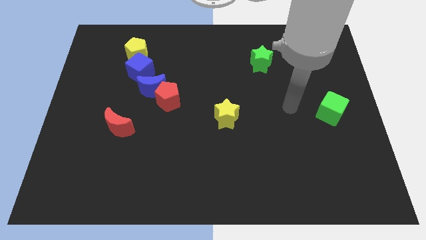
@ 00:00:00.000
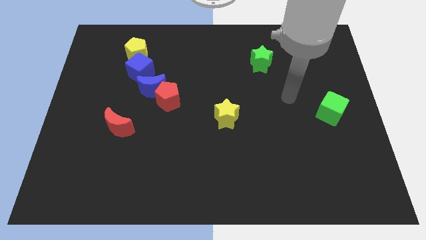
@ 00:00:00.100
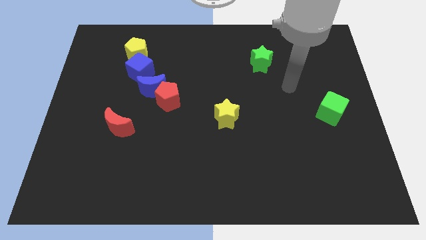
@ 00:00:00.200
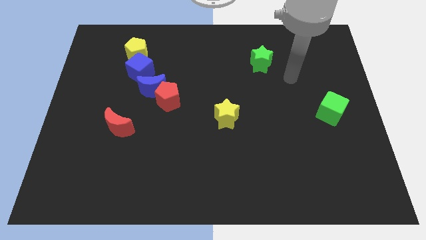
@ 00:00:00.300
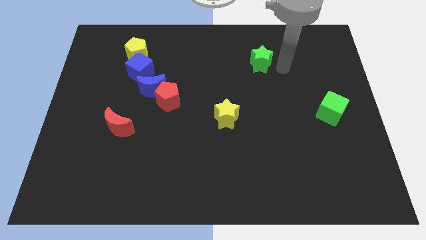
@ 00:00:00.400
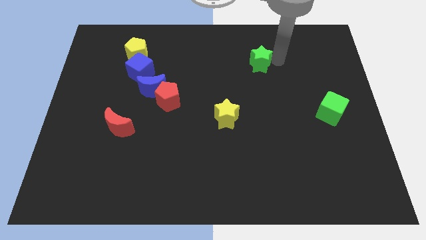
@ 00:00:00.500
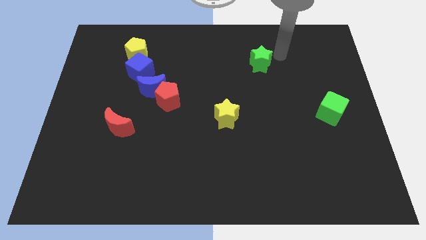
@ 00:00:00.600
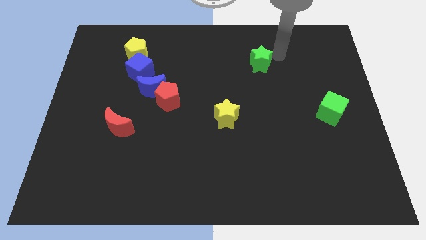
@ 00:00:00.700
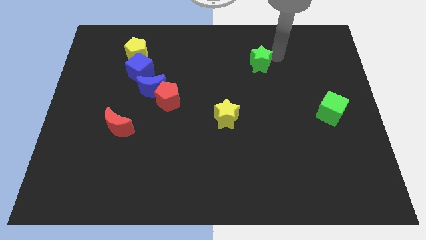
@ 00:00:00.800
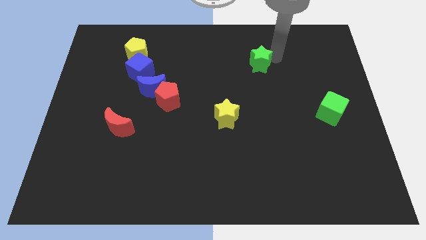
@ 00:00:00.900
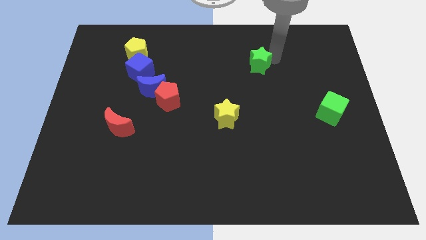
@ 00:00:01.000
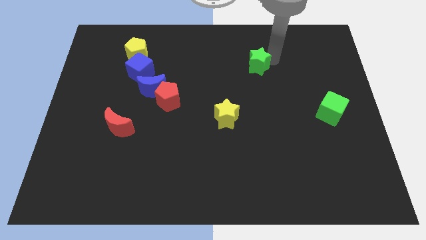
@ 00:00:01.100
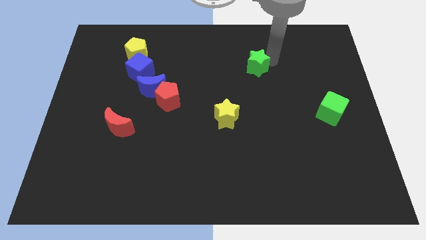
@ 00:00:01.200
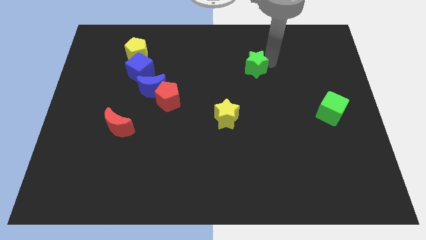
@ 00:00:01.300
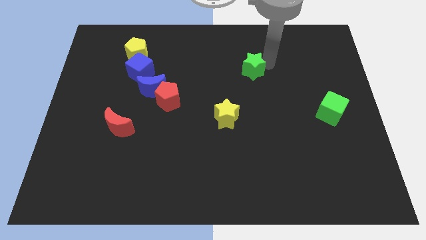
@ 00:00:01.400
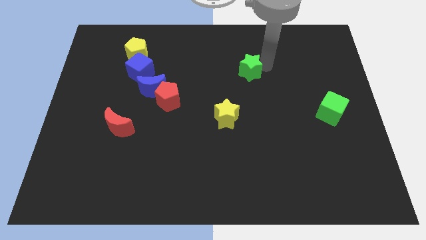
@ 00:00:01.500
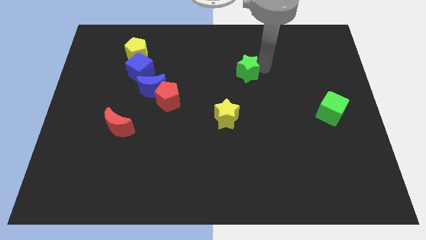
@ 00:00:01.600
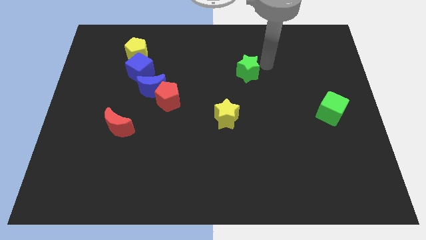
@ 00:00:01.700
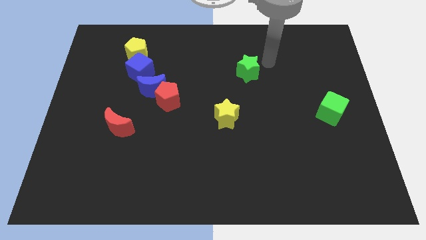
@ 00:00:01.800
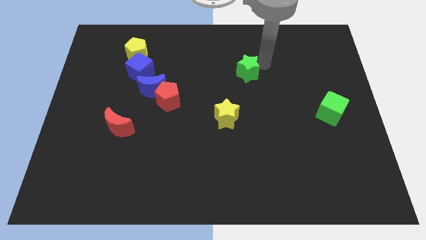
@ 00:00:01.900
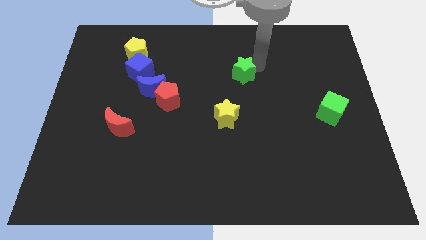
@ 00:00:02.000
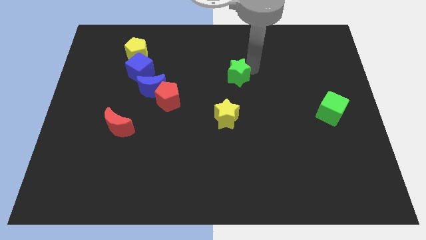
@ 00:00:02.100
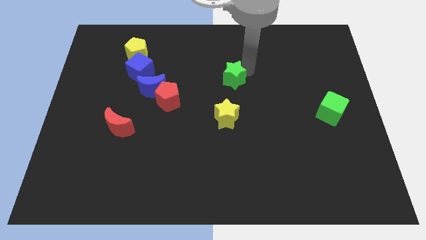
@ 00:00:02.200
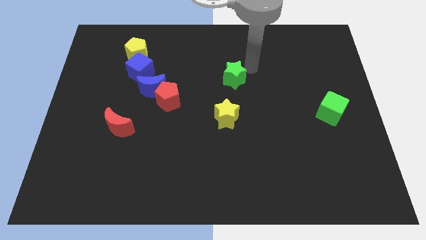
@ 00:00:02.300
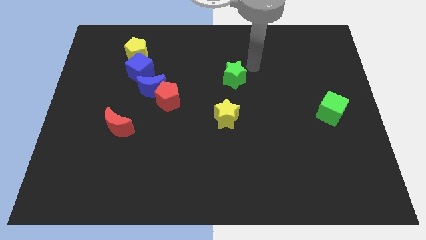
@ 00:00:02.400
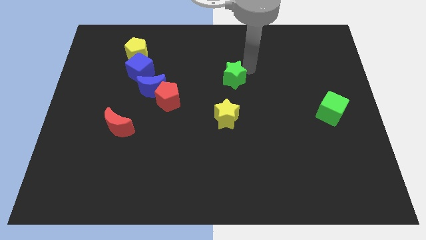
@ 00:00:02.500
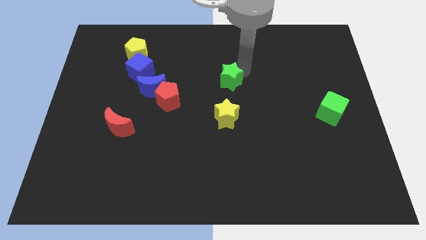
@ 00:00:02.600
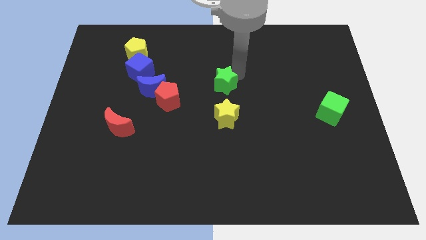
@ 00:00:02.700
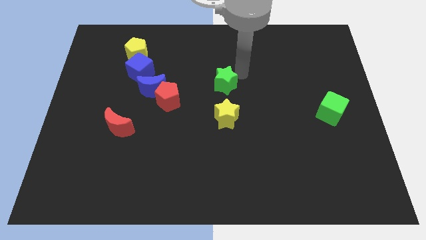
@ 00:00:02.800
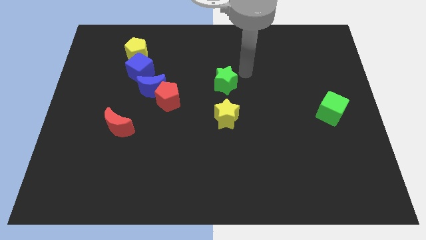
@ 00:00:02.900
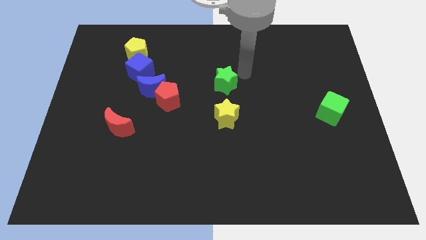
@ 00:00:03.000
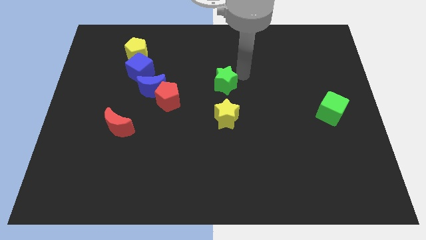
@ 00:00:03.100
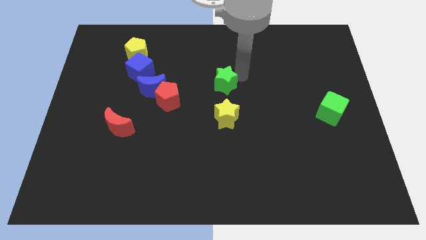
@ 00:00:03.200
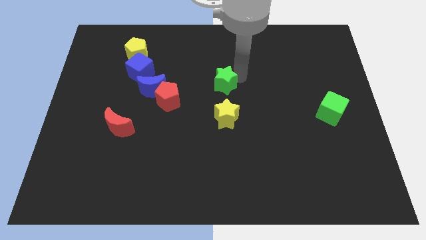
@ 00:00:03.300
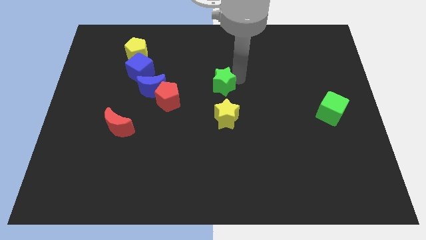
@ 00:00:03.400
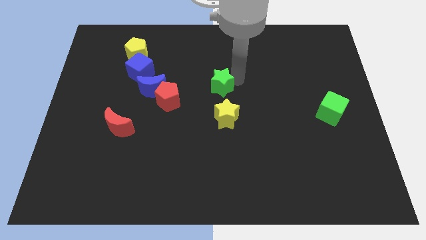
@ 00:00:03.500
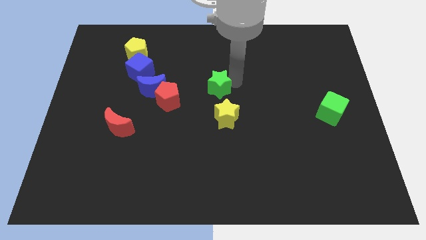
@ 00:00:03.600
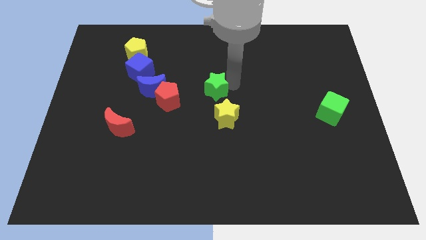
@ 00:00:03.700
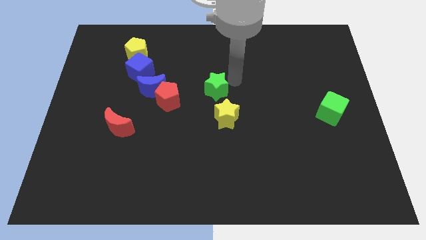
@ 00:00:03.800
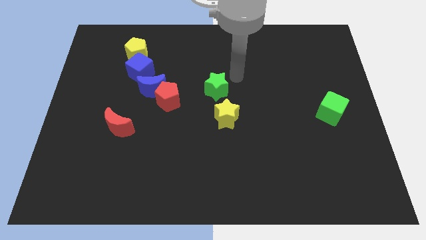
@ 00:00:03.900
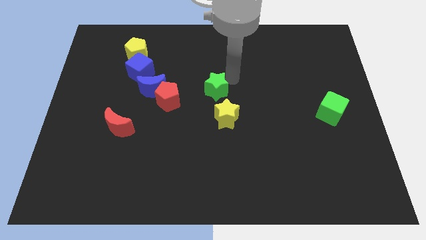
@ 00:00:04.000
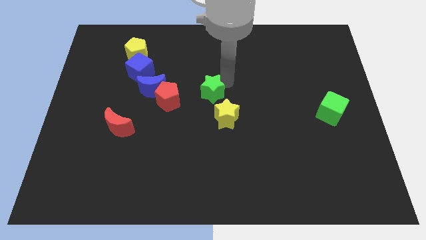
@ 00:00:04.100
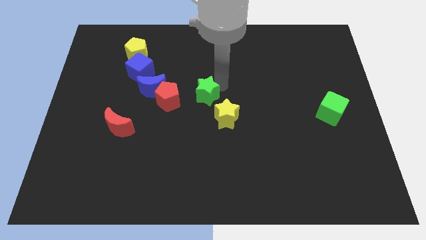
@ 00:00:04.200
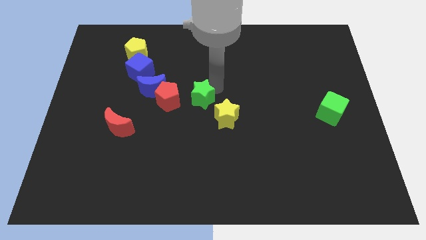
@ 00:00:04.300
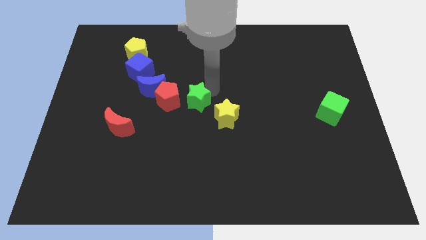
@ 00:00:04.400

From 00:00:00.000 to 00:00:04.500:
slide the green star down and left

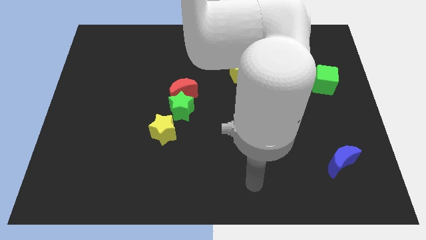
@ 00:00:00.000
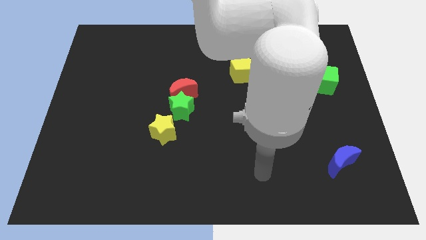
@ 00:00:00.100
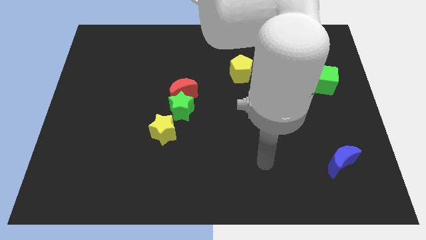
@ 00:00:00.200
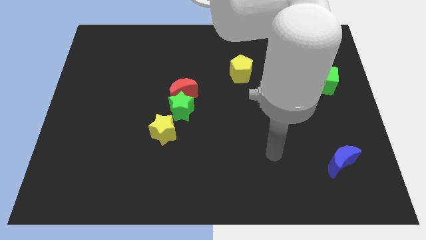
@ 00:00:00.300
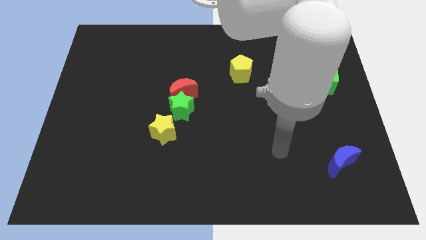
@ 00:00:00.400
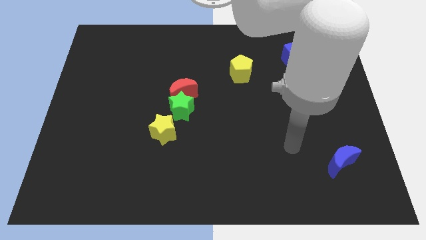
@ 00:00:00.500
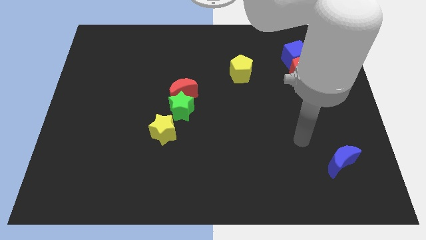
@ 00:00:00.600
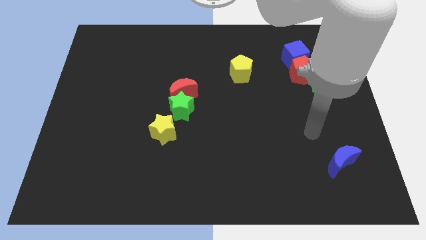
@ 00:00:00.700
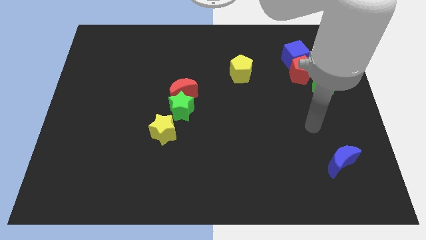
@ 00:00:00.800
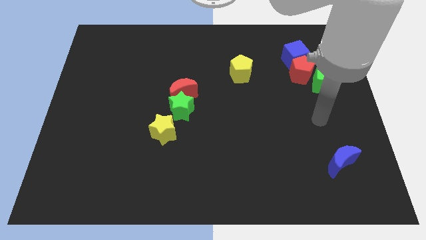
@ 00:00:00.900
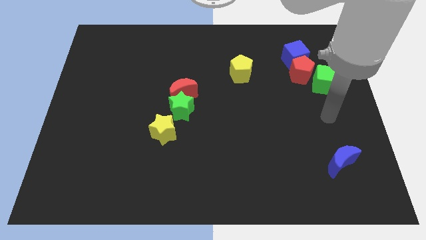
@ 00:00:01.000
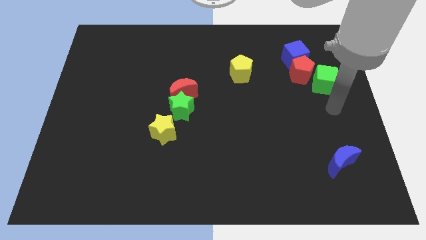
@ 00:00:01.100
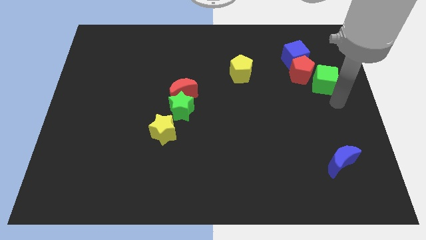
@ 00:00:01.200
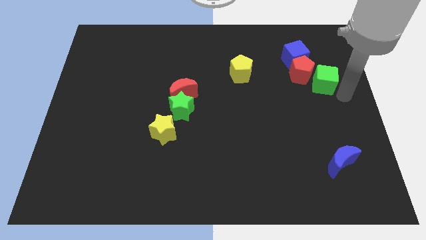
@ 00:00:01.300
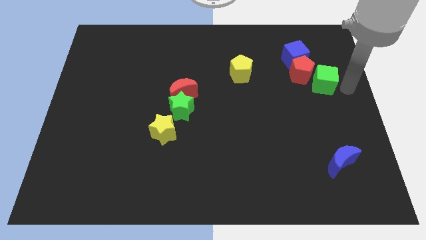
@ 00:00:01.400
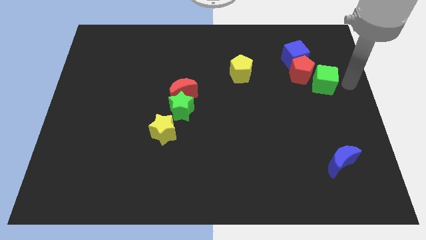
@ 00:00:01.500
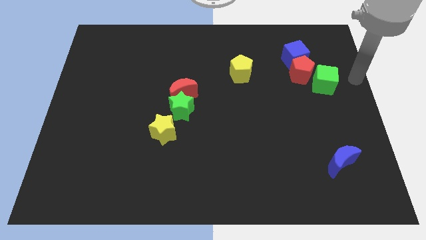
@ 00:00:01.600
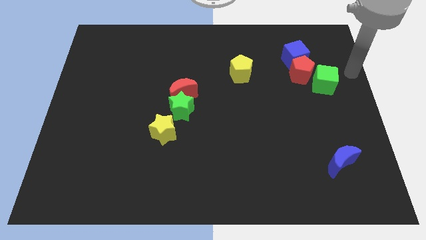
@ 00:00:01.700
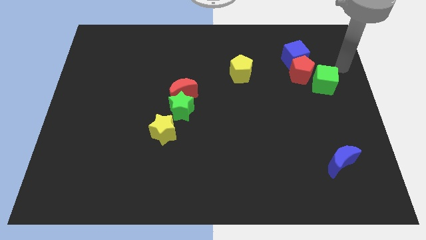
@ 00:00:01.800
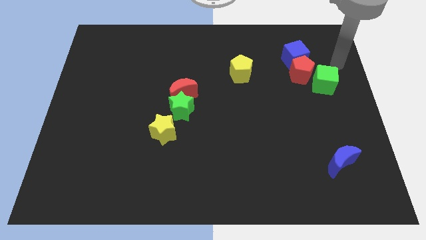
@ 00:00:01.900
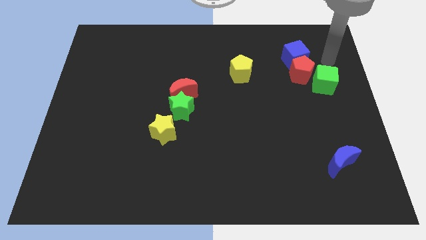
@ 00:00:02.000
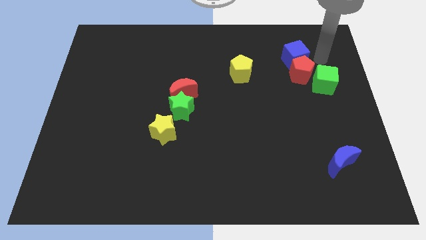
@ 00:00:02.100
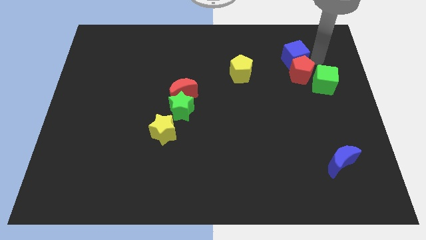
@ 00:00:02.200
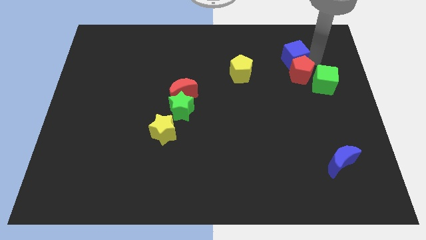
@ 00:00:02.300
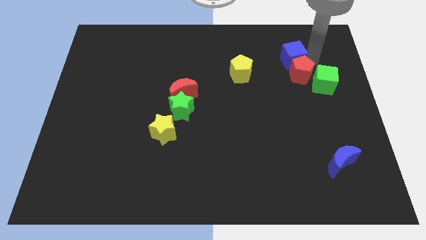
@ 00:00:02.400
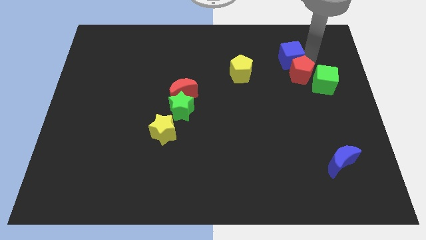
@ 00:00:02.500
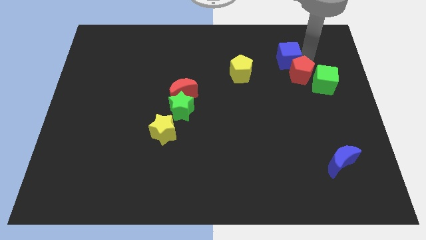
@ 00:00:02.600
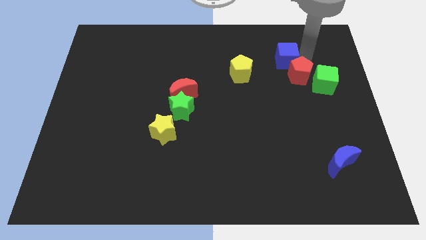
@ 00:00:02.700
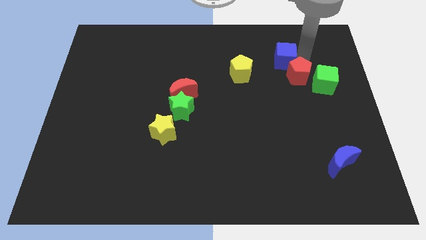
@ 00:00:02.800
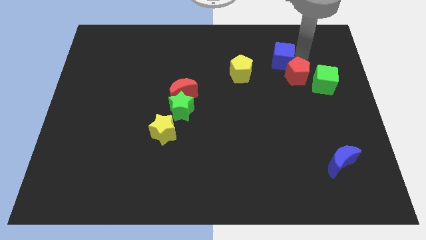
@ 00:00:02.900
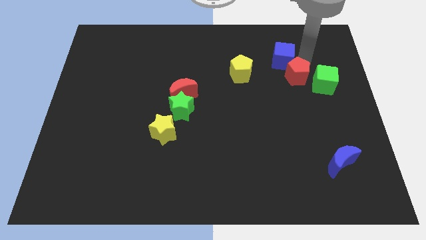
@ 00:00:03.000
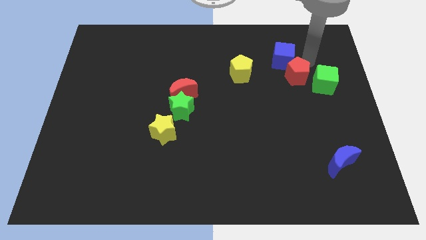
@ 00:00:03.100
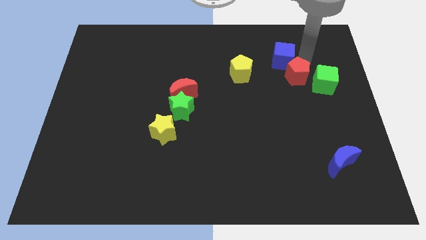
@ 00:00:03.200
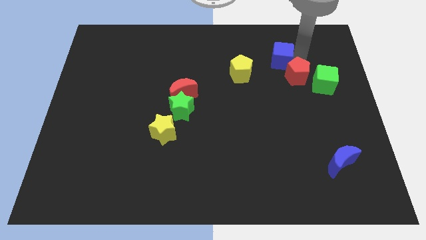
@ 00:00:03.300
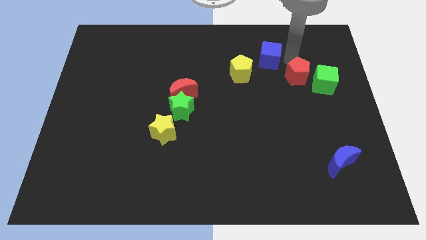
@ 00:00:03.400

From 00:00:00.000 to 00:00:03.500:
push the blue cube to the left slightly
